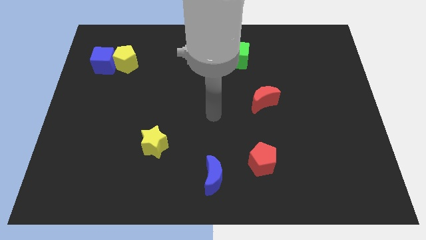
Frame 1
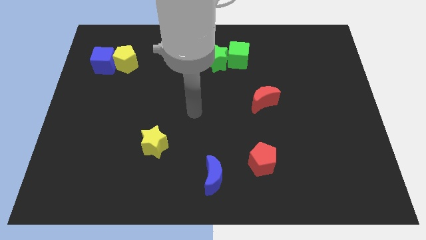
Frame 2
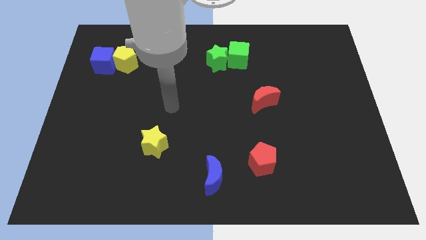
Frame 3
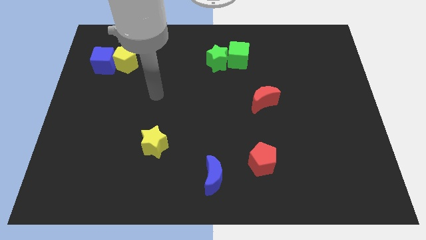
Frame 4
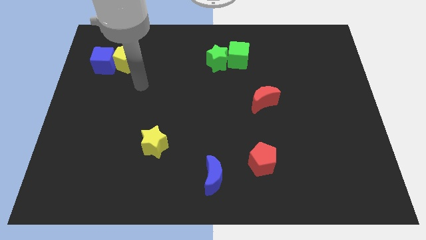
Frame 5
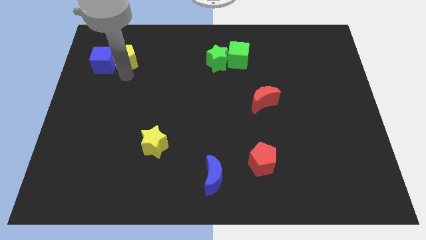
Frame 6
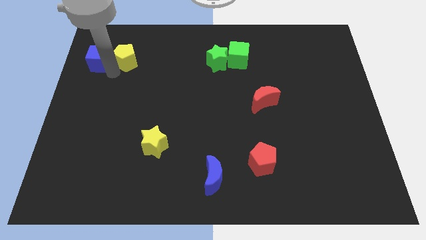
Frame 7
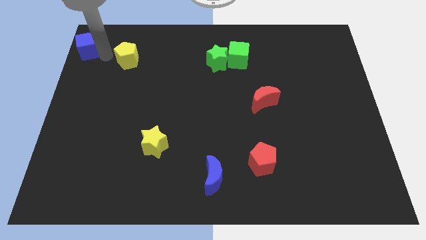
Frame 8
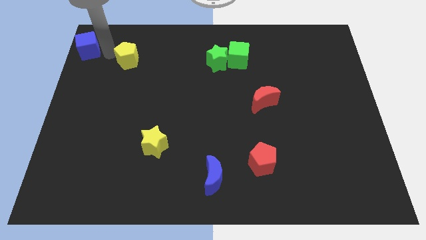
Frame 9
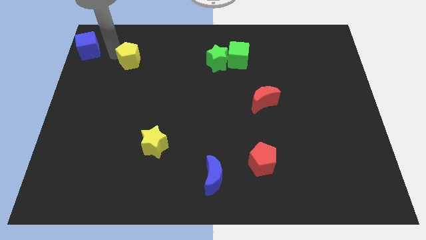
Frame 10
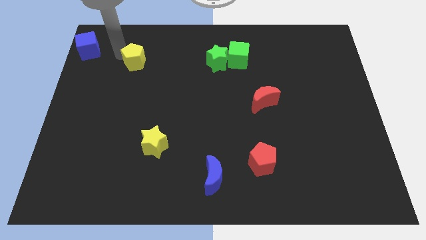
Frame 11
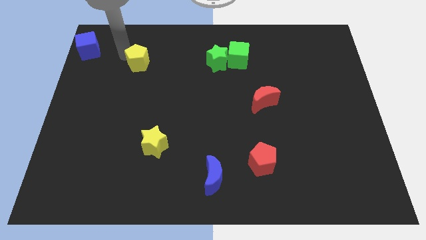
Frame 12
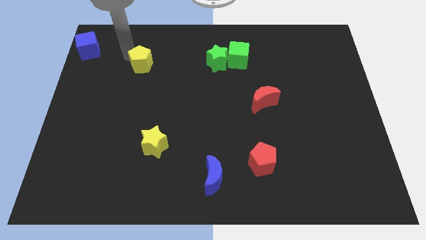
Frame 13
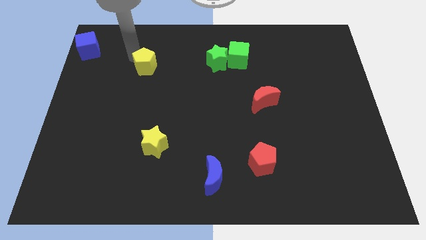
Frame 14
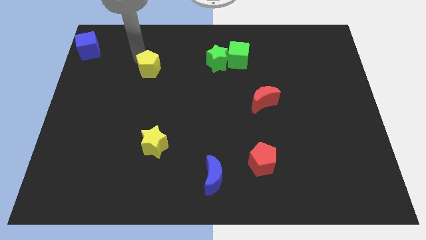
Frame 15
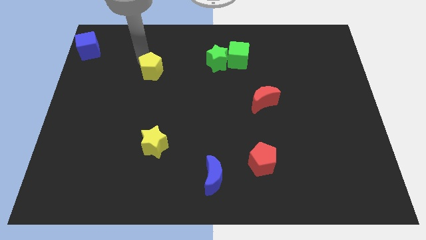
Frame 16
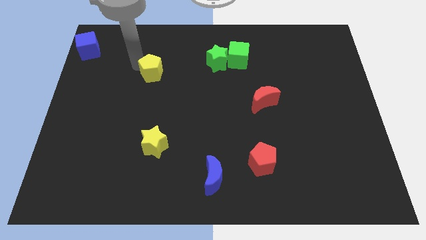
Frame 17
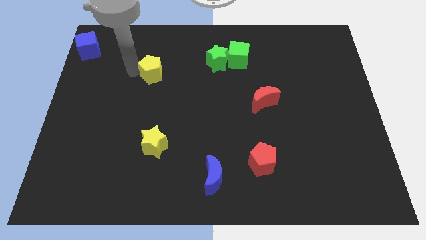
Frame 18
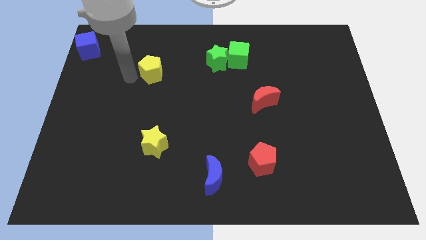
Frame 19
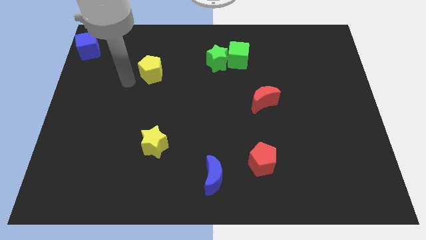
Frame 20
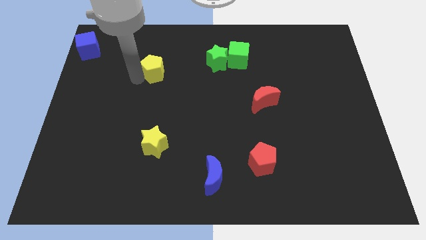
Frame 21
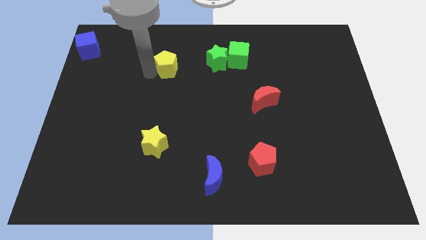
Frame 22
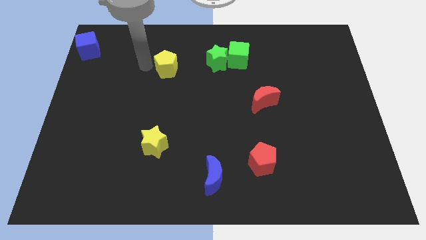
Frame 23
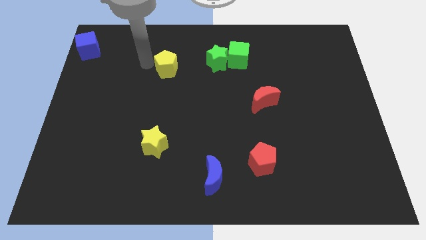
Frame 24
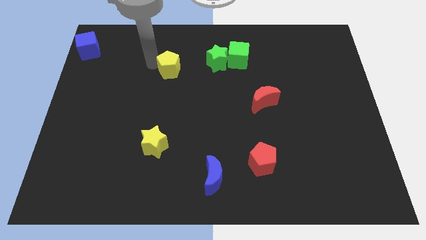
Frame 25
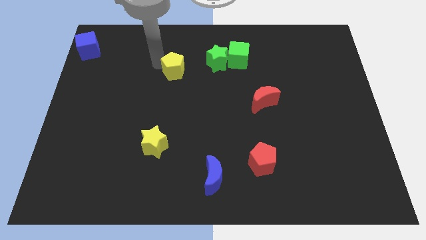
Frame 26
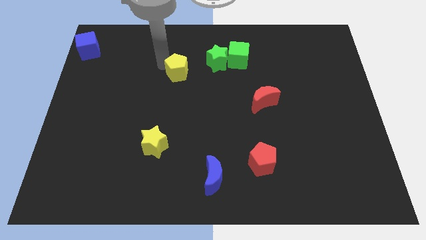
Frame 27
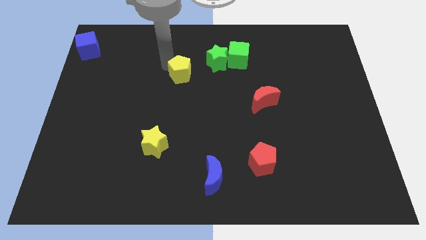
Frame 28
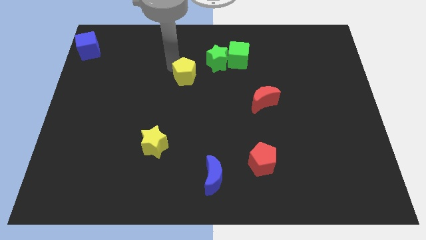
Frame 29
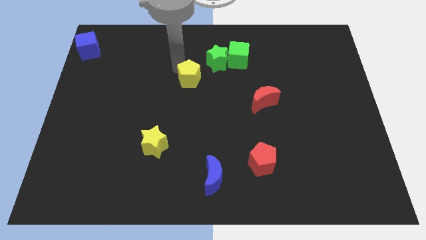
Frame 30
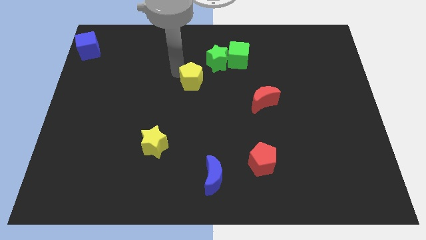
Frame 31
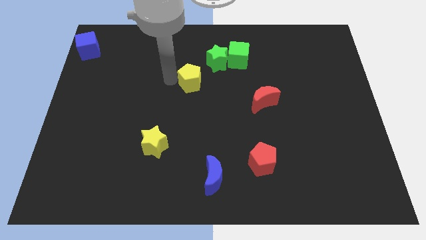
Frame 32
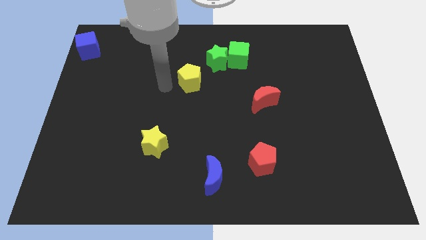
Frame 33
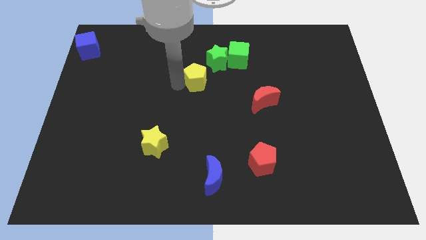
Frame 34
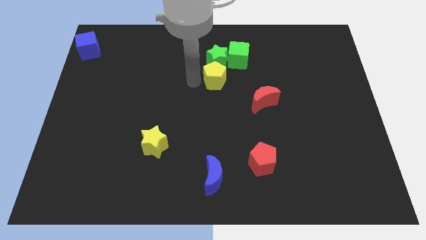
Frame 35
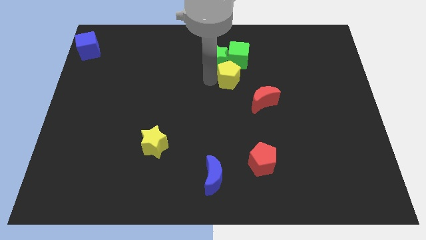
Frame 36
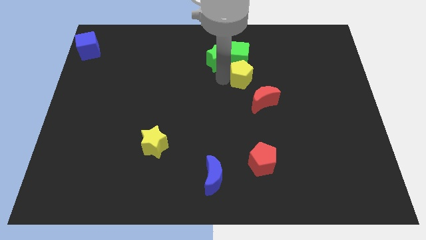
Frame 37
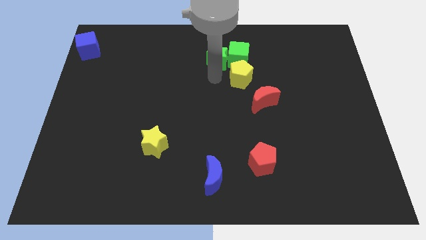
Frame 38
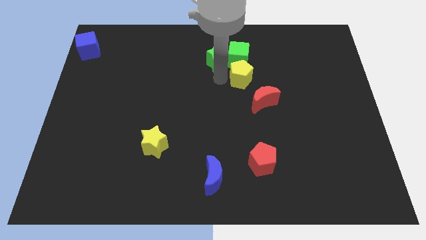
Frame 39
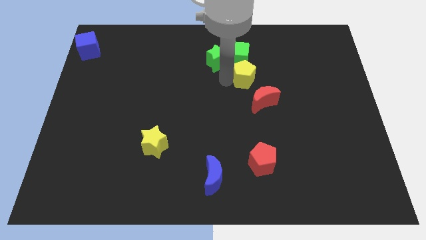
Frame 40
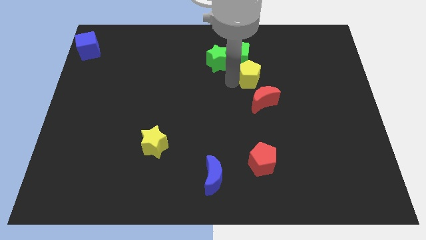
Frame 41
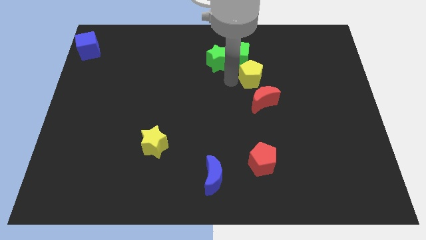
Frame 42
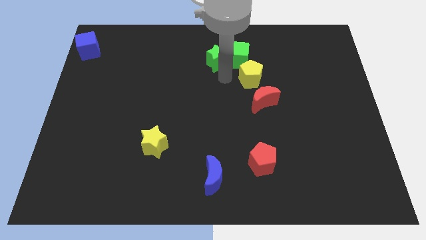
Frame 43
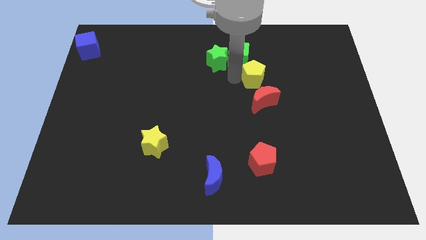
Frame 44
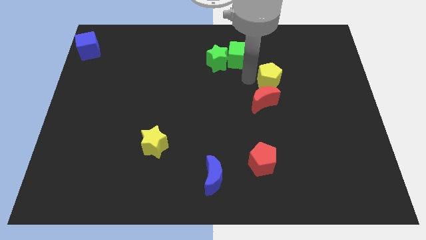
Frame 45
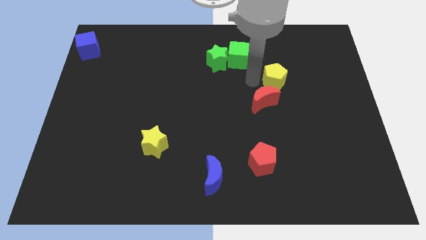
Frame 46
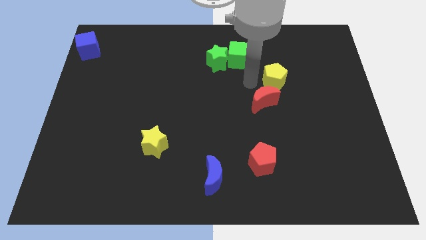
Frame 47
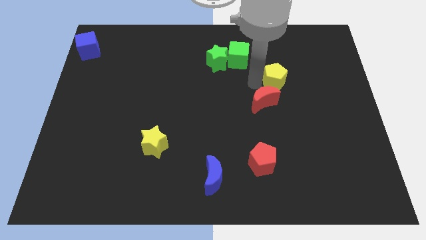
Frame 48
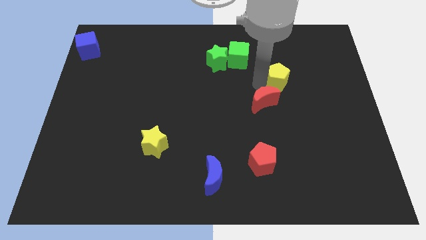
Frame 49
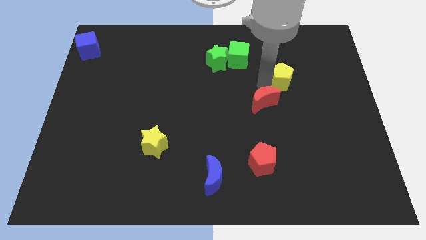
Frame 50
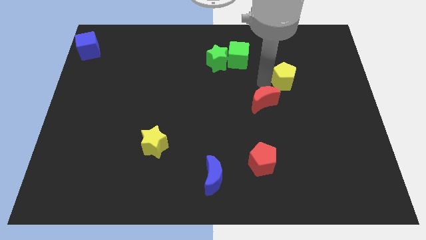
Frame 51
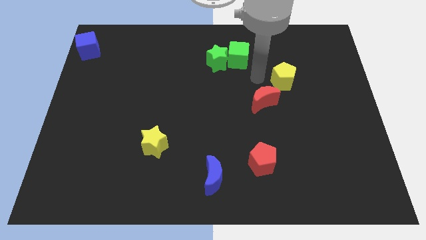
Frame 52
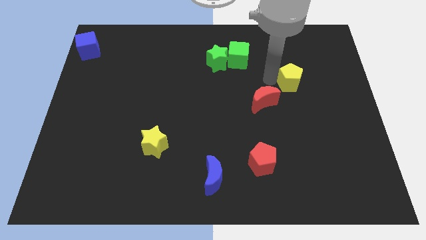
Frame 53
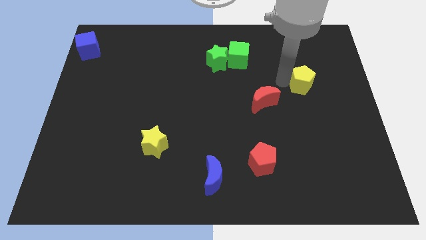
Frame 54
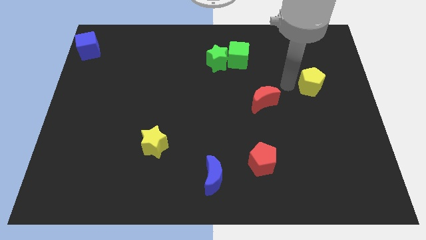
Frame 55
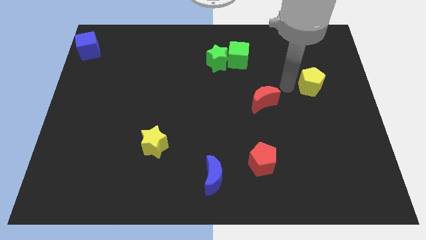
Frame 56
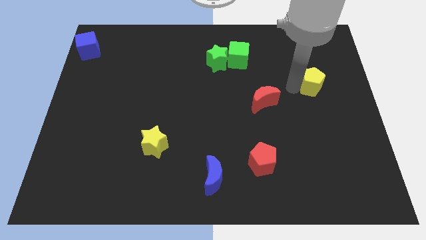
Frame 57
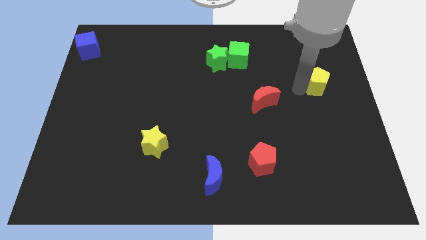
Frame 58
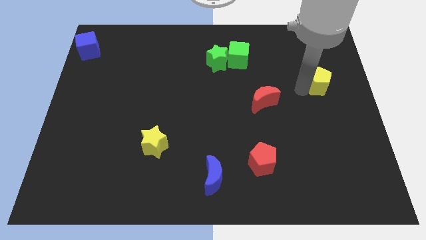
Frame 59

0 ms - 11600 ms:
put the yellow pentagon to the right side

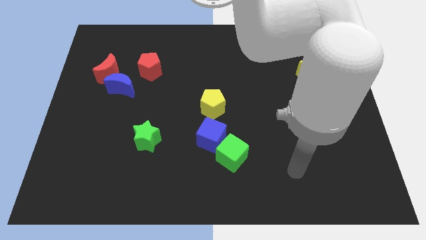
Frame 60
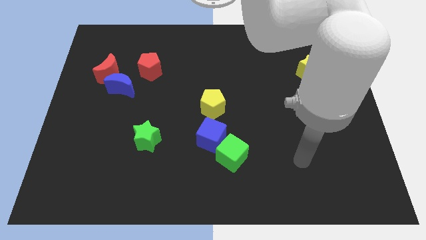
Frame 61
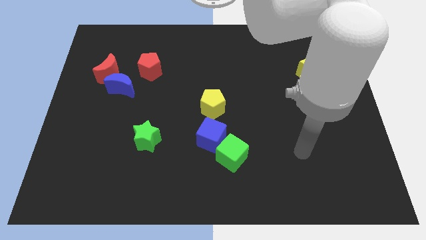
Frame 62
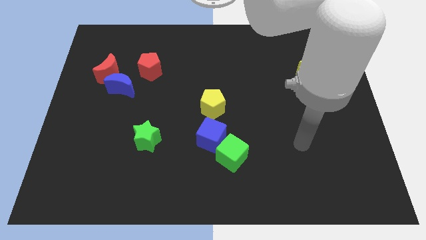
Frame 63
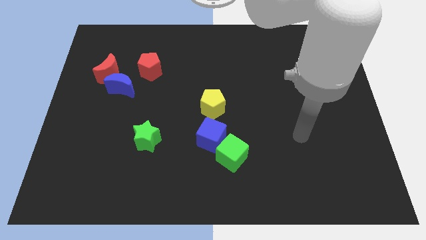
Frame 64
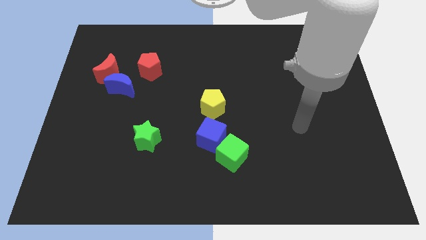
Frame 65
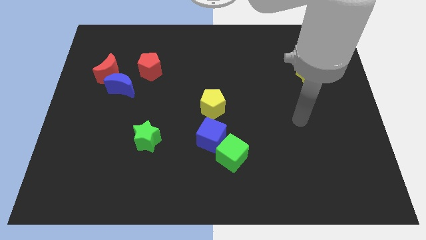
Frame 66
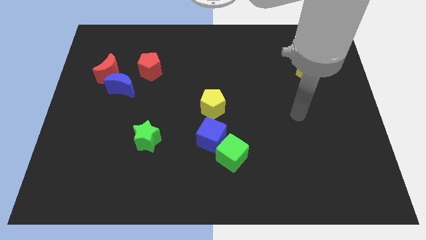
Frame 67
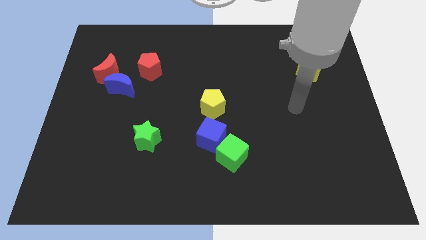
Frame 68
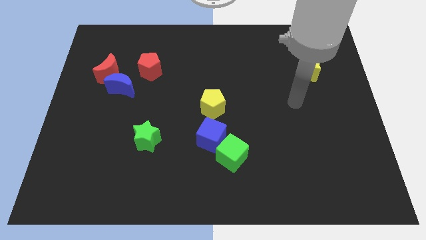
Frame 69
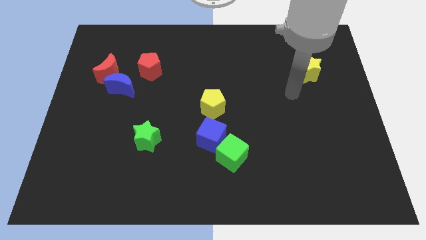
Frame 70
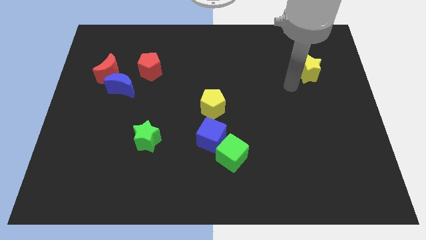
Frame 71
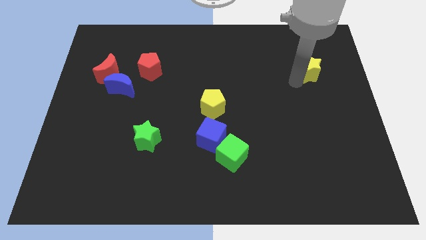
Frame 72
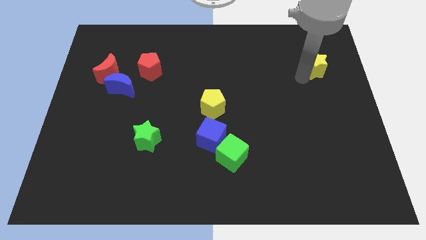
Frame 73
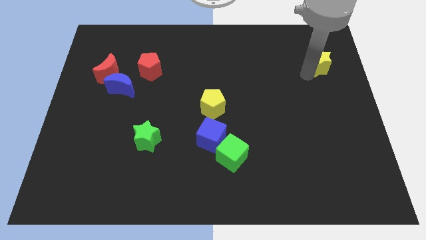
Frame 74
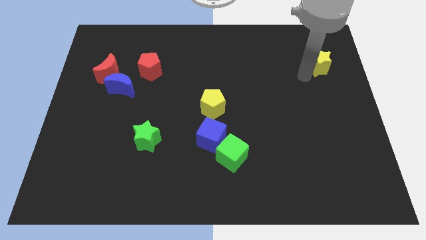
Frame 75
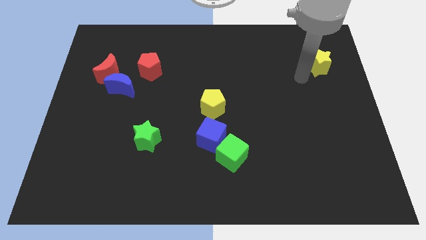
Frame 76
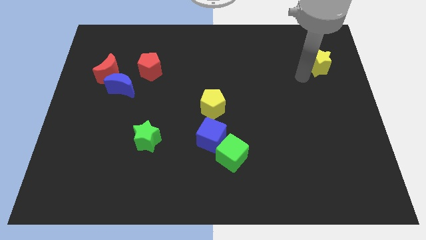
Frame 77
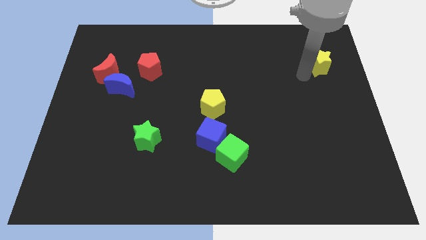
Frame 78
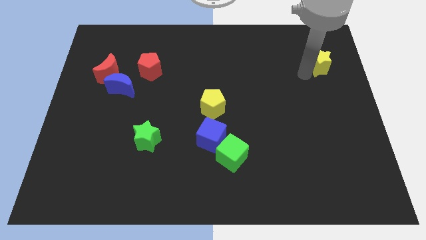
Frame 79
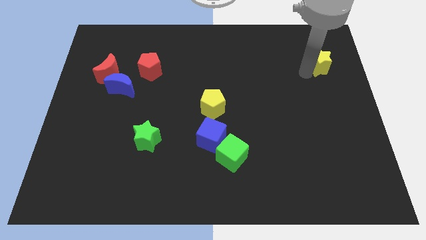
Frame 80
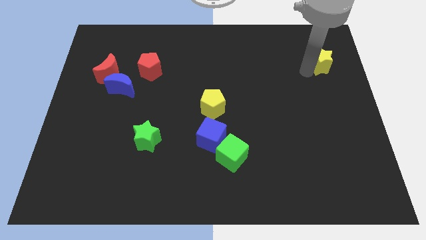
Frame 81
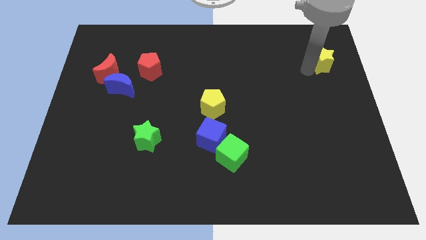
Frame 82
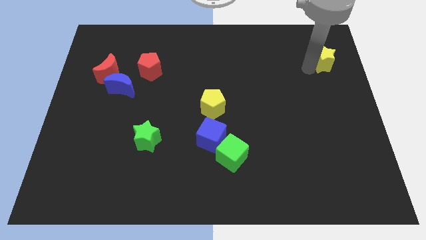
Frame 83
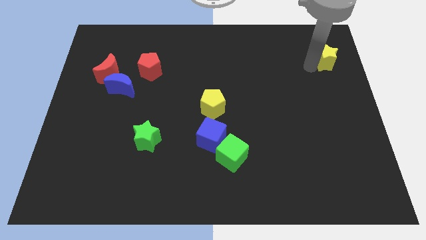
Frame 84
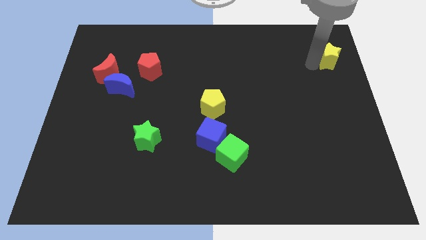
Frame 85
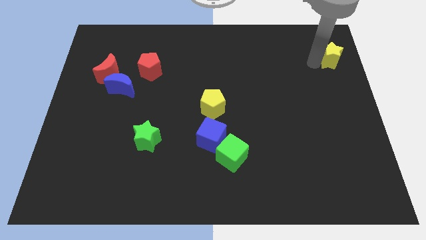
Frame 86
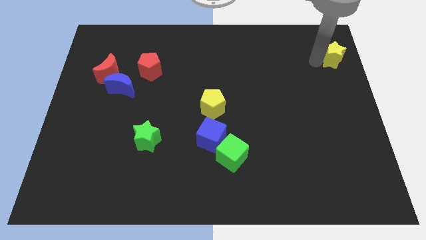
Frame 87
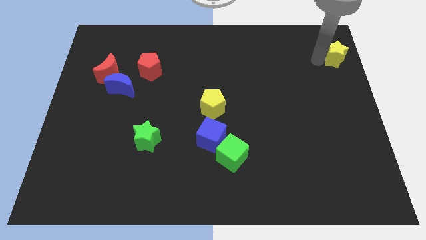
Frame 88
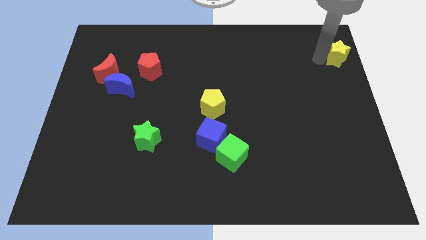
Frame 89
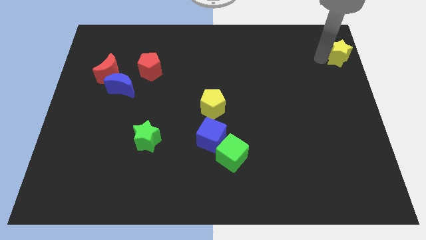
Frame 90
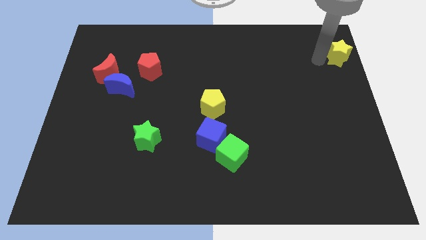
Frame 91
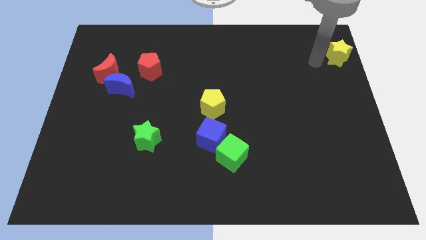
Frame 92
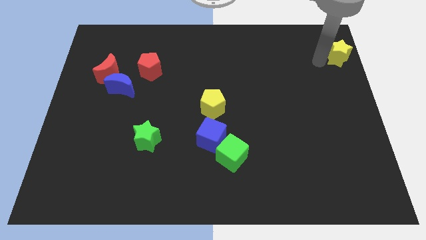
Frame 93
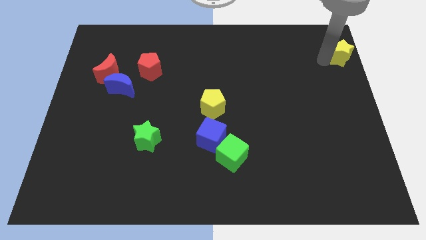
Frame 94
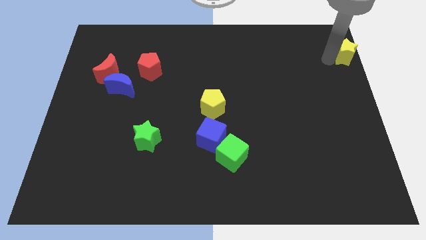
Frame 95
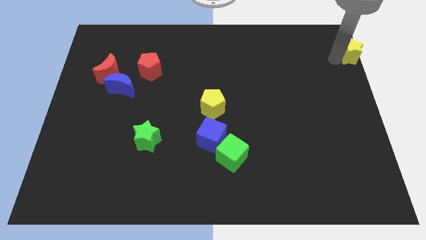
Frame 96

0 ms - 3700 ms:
push the yellow star to the upper right corner
